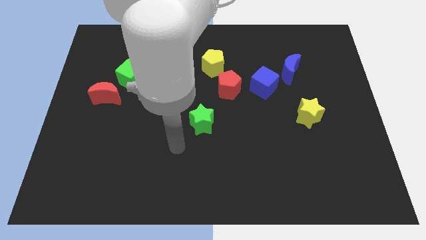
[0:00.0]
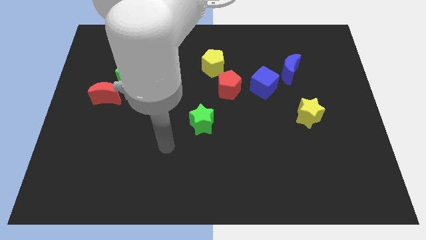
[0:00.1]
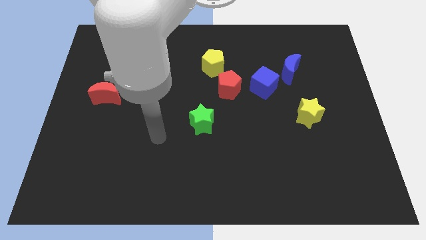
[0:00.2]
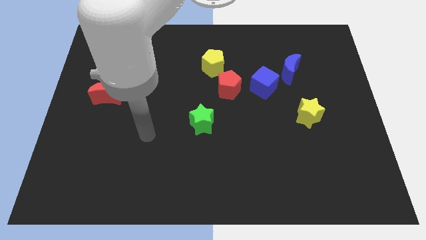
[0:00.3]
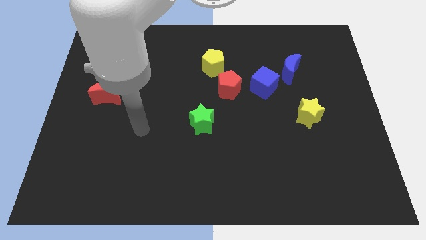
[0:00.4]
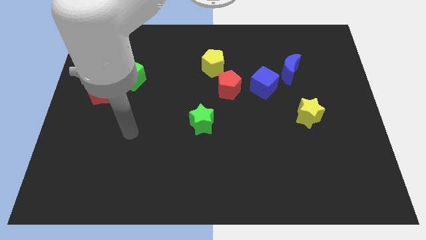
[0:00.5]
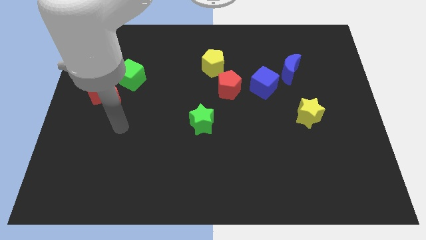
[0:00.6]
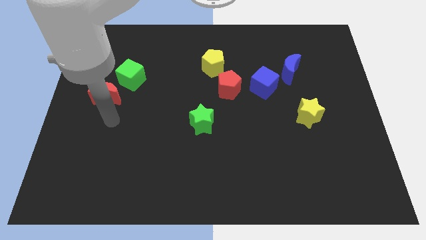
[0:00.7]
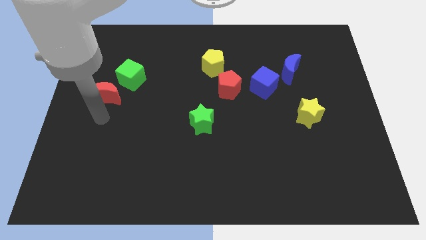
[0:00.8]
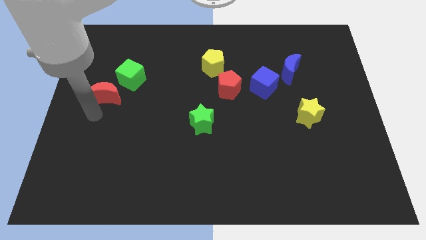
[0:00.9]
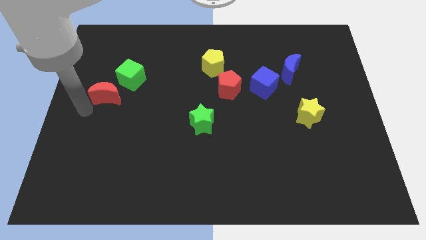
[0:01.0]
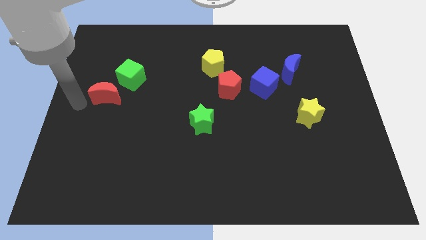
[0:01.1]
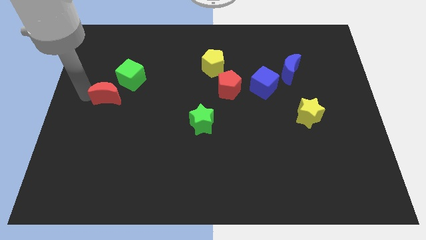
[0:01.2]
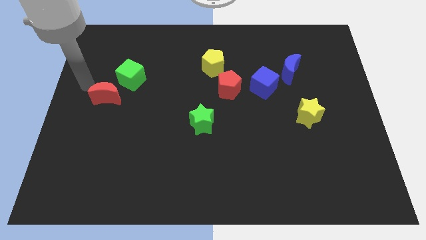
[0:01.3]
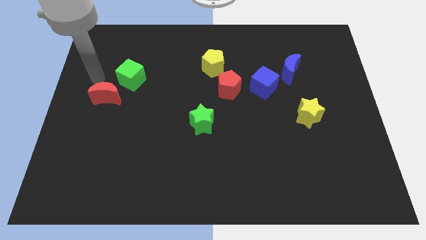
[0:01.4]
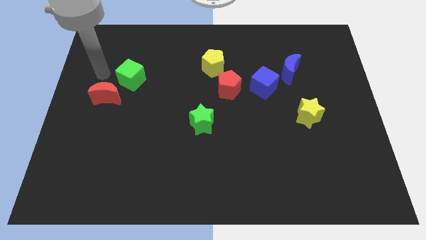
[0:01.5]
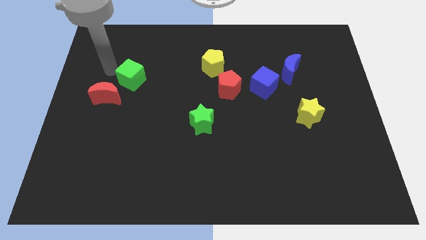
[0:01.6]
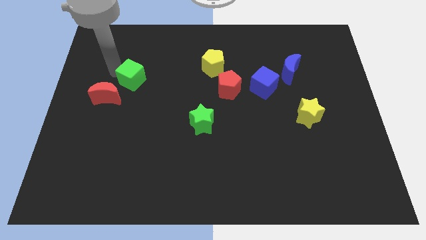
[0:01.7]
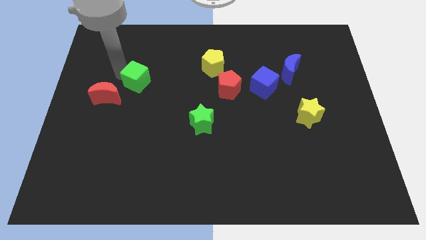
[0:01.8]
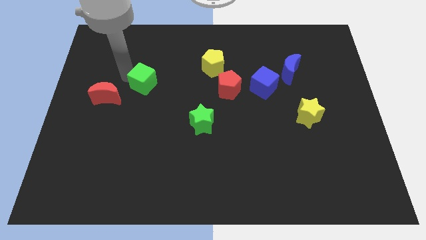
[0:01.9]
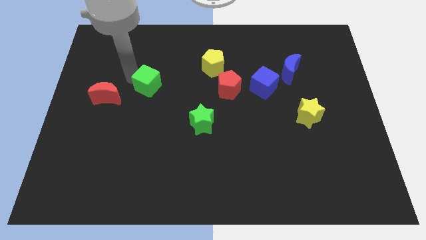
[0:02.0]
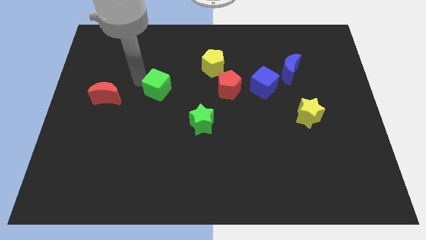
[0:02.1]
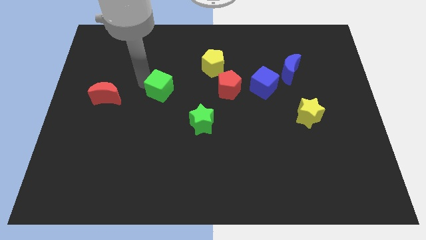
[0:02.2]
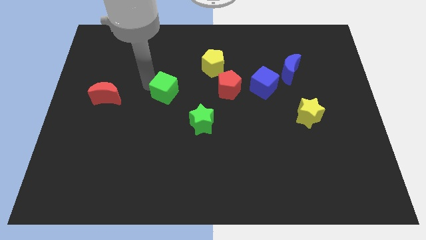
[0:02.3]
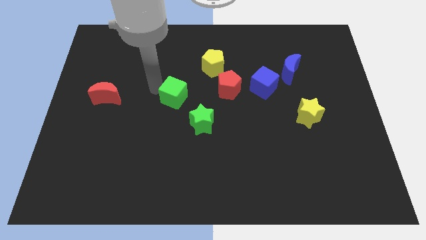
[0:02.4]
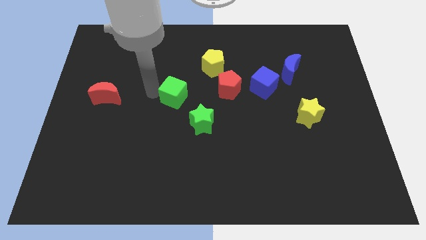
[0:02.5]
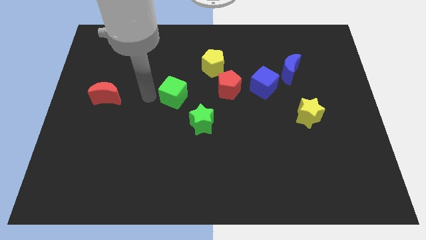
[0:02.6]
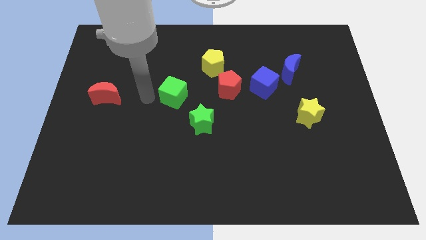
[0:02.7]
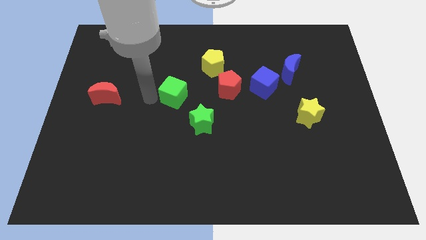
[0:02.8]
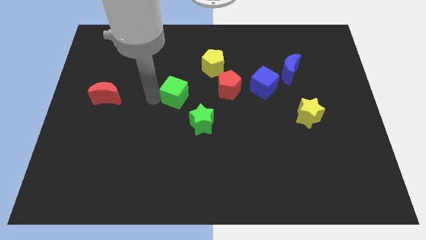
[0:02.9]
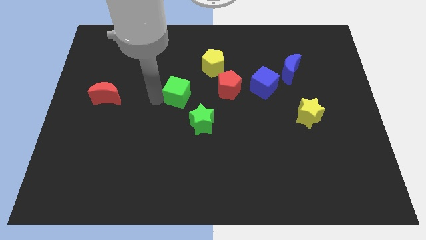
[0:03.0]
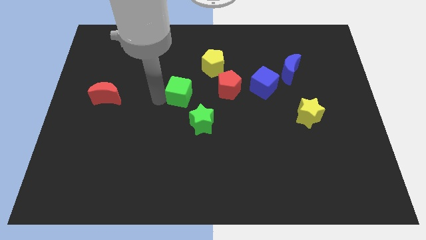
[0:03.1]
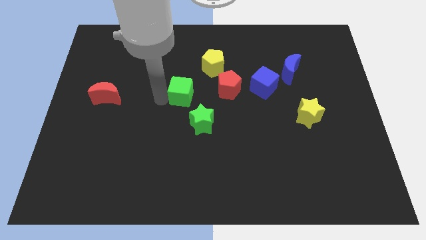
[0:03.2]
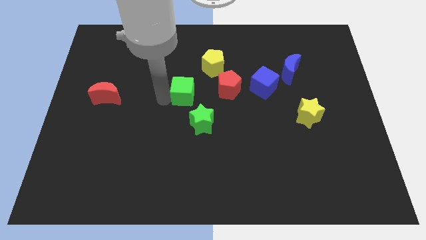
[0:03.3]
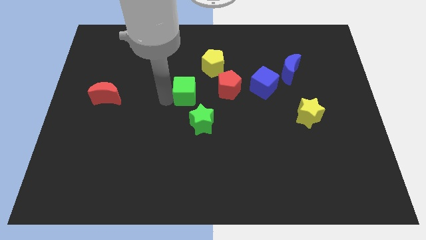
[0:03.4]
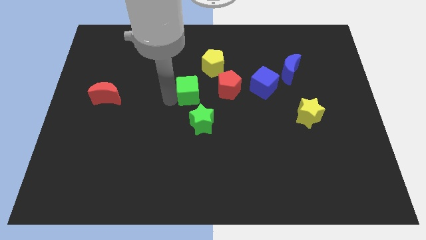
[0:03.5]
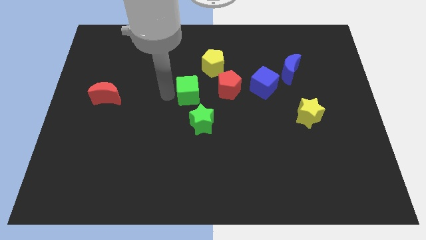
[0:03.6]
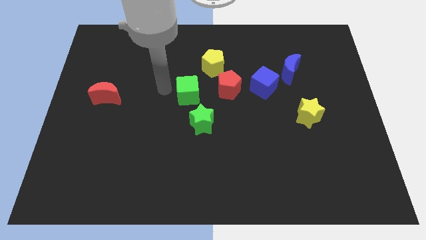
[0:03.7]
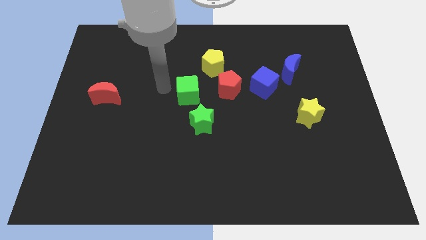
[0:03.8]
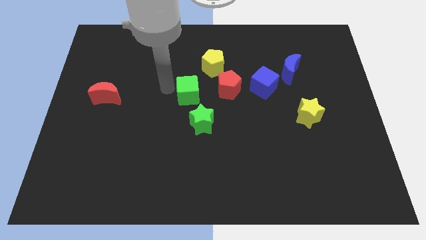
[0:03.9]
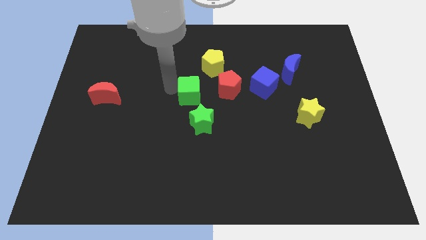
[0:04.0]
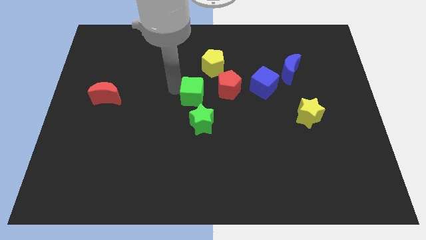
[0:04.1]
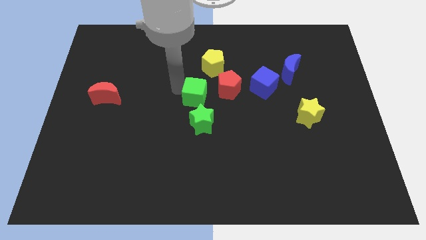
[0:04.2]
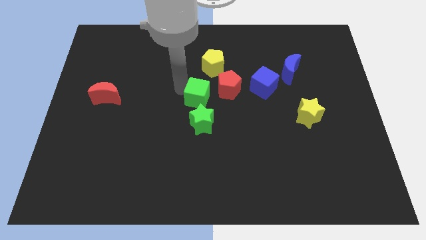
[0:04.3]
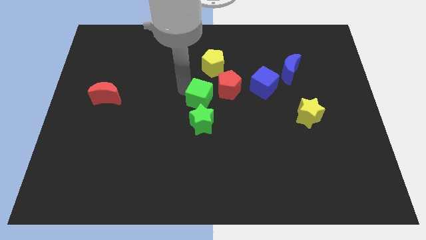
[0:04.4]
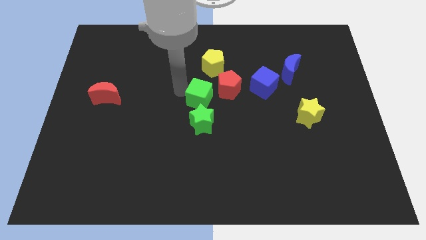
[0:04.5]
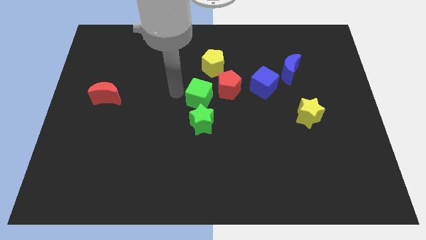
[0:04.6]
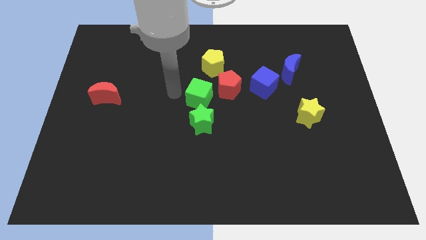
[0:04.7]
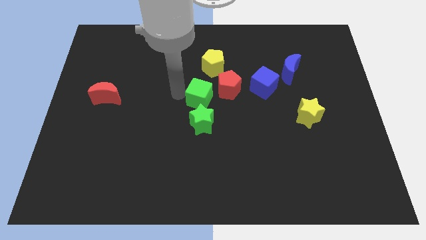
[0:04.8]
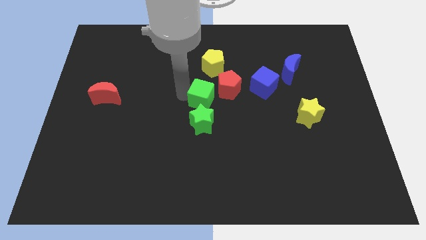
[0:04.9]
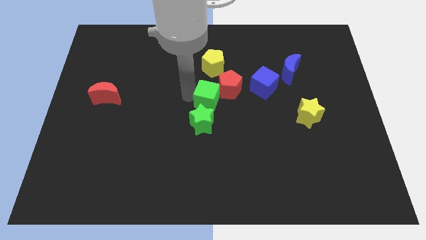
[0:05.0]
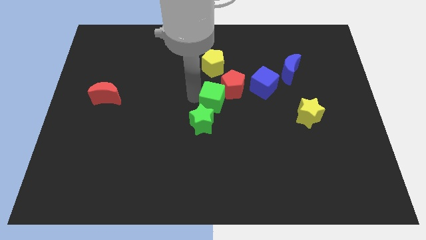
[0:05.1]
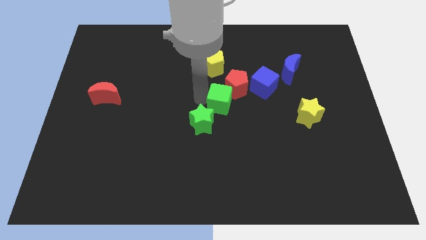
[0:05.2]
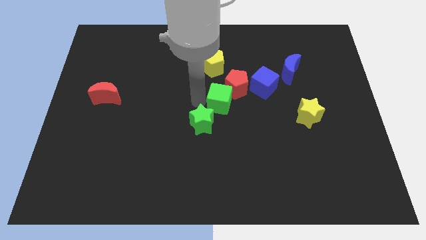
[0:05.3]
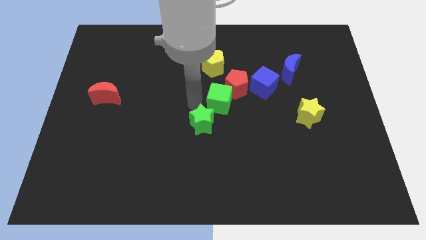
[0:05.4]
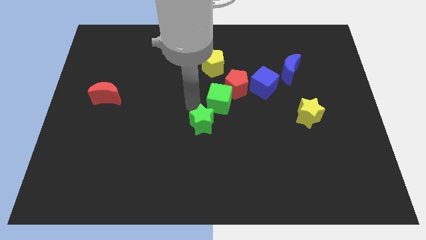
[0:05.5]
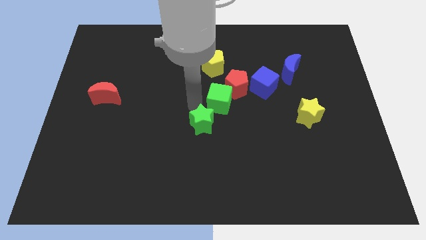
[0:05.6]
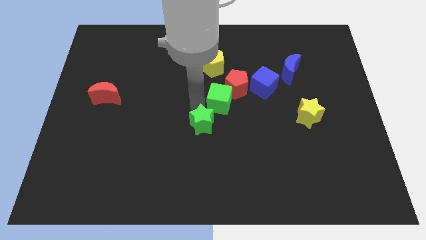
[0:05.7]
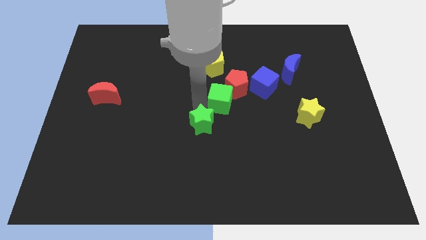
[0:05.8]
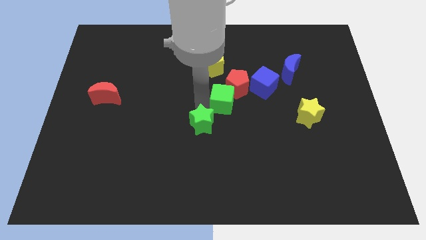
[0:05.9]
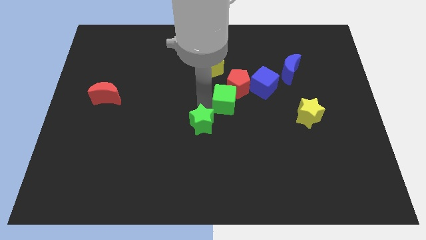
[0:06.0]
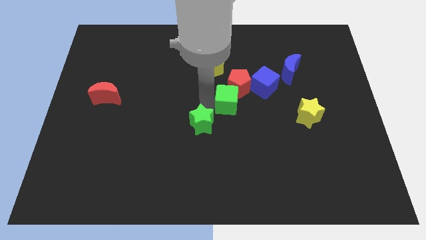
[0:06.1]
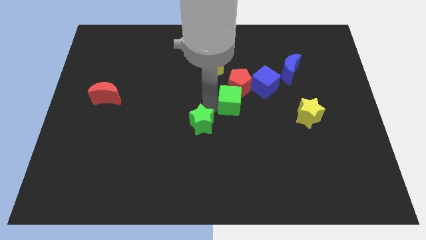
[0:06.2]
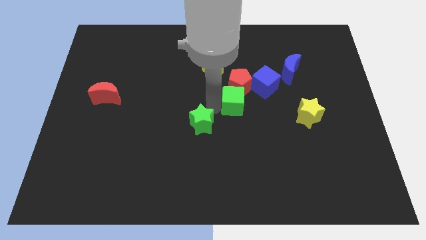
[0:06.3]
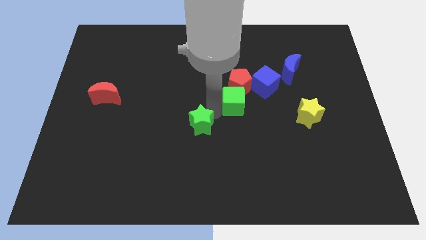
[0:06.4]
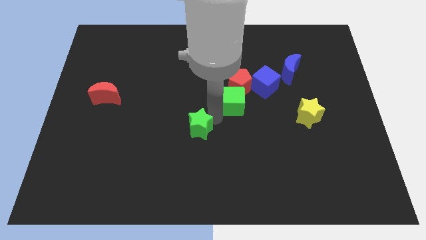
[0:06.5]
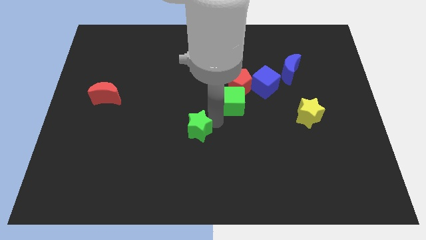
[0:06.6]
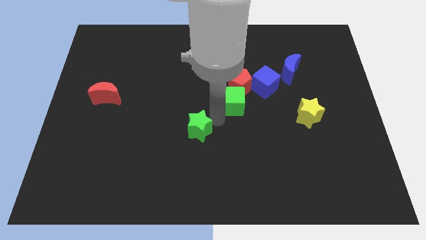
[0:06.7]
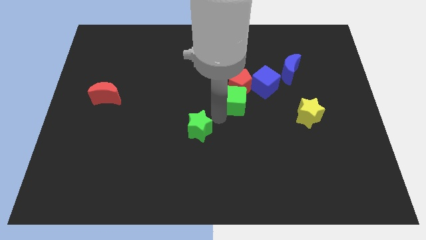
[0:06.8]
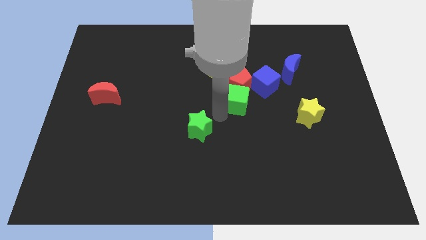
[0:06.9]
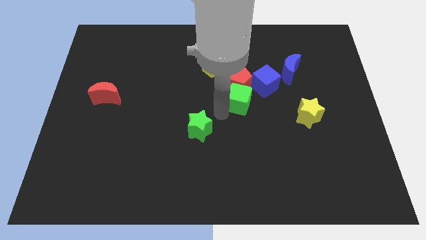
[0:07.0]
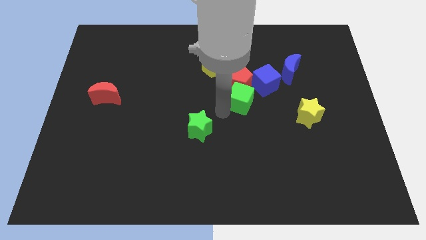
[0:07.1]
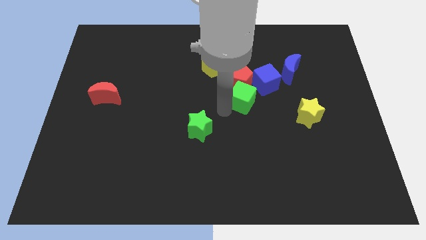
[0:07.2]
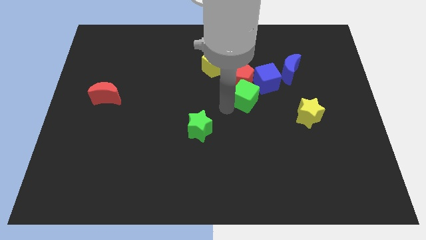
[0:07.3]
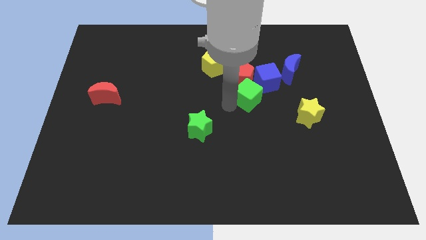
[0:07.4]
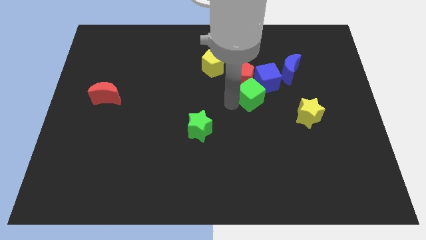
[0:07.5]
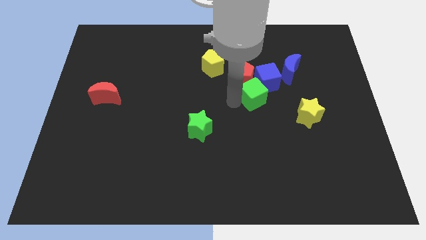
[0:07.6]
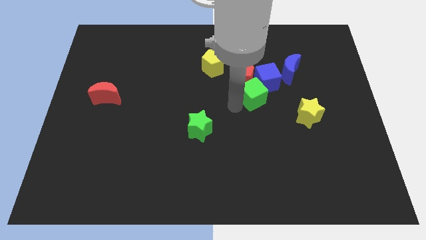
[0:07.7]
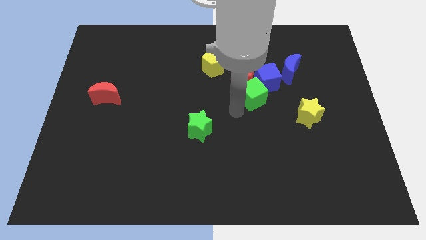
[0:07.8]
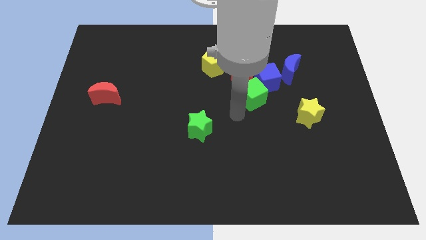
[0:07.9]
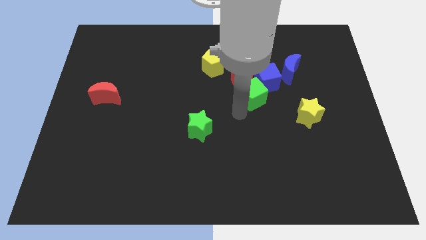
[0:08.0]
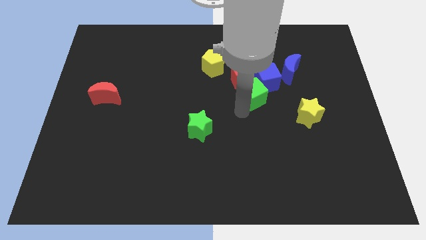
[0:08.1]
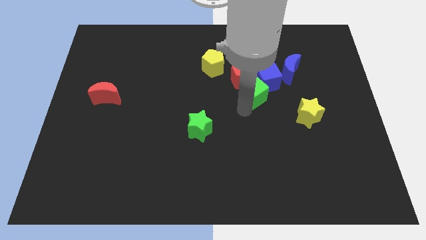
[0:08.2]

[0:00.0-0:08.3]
push the green cube to the blue cube
